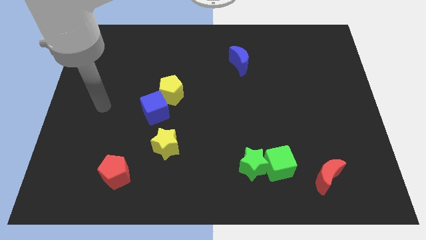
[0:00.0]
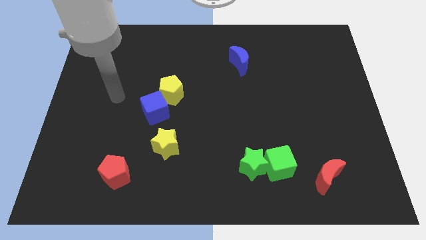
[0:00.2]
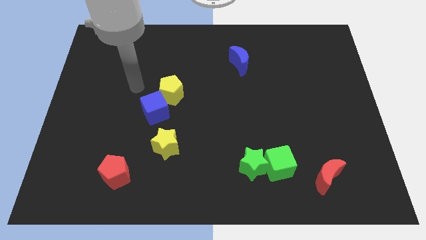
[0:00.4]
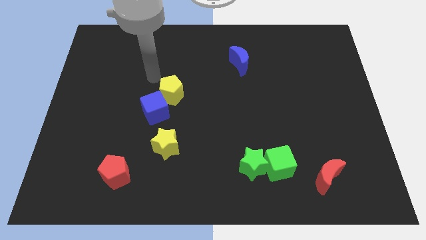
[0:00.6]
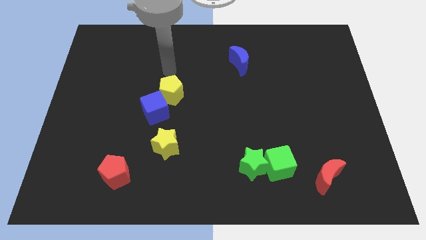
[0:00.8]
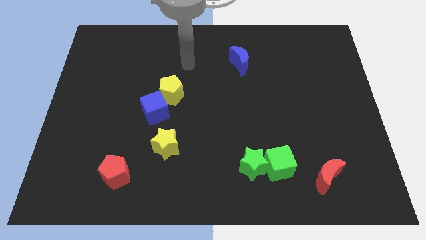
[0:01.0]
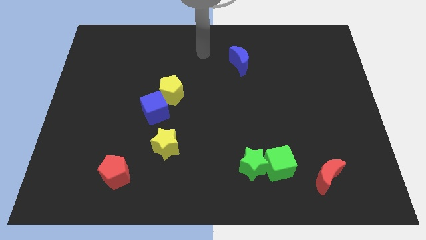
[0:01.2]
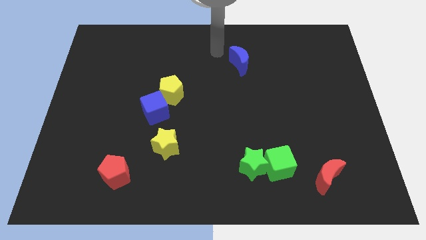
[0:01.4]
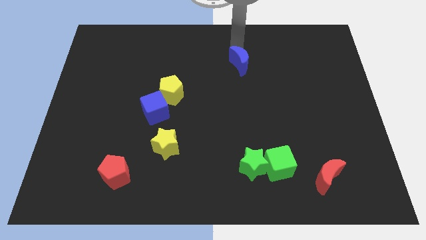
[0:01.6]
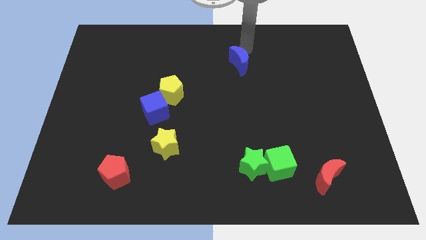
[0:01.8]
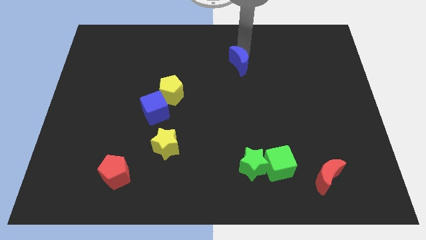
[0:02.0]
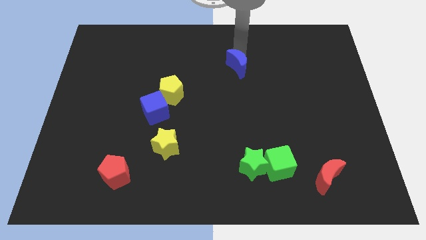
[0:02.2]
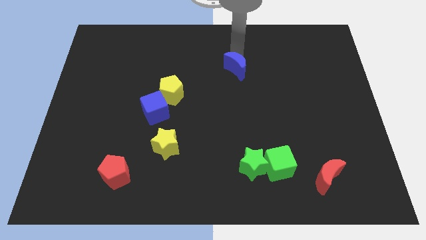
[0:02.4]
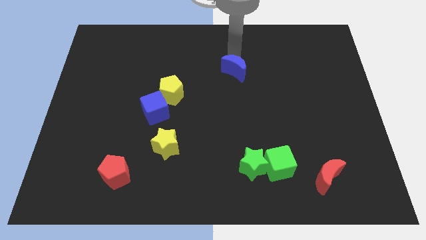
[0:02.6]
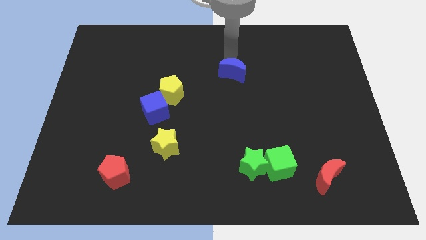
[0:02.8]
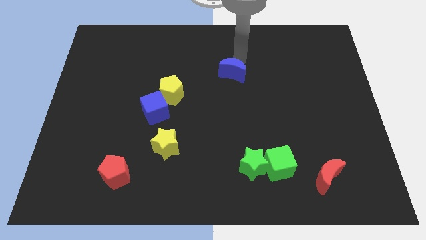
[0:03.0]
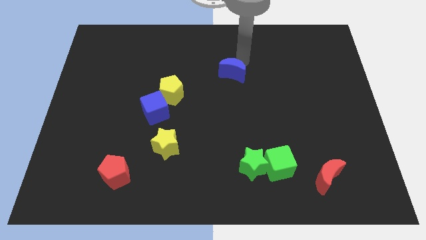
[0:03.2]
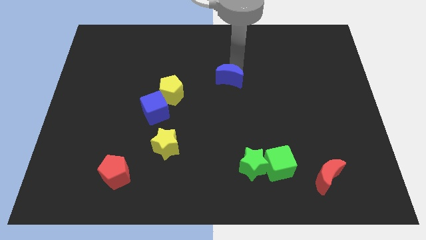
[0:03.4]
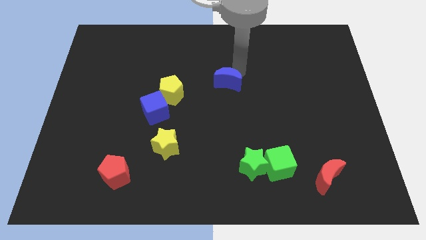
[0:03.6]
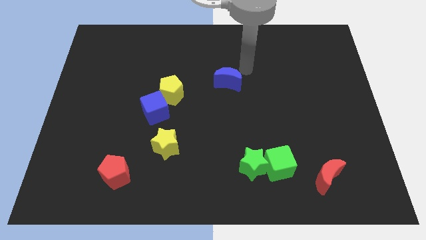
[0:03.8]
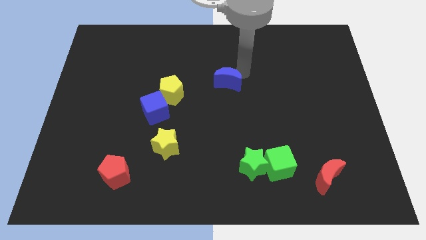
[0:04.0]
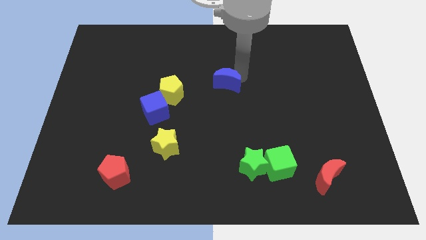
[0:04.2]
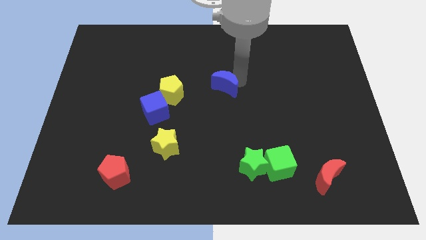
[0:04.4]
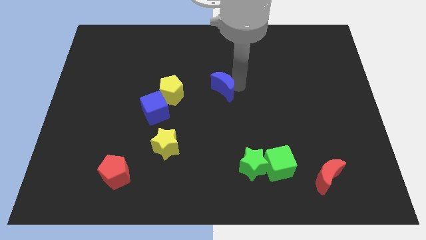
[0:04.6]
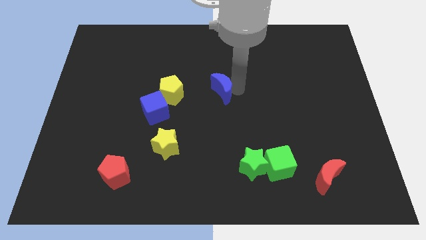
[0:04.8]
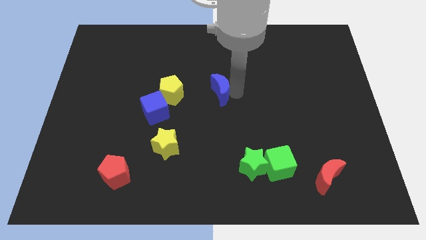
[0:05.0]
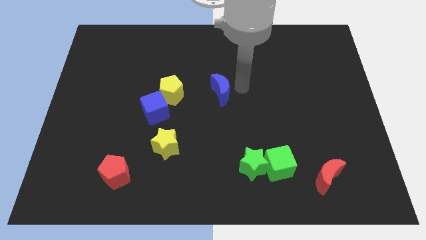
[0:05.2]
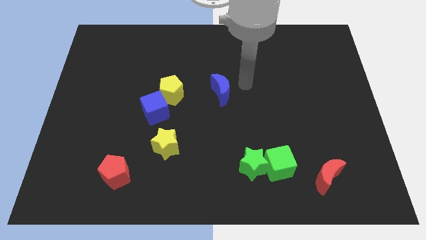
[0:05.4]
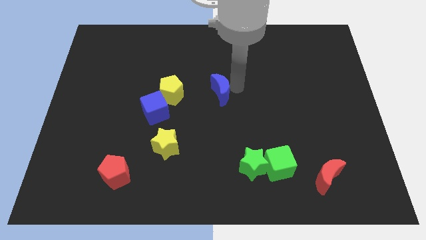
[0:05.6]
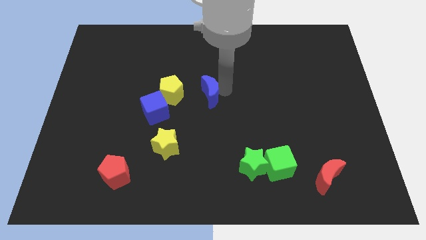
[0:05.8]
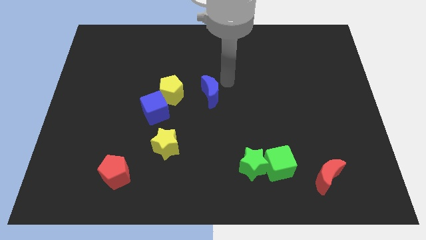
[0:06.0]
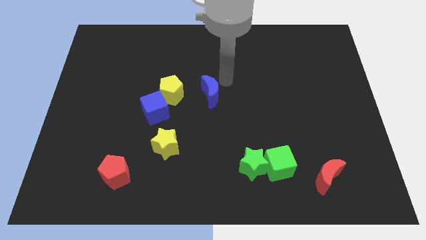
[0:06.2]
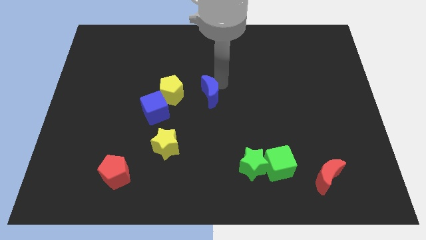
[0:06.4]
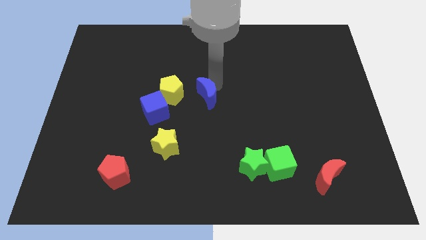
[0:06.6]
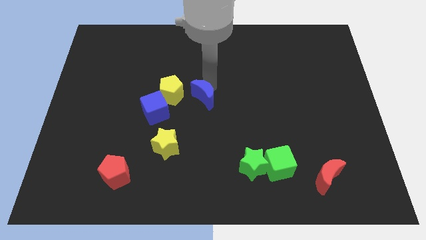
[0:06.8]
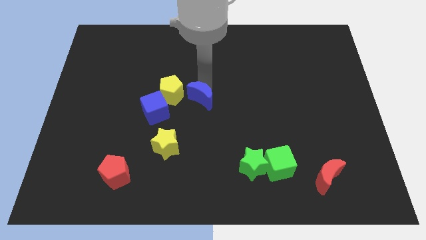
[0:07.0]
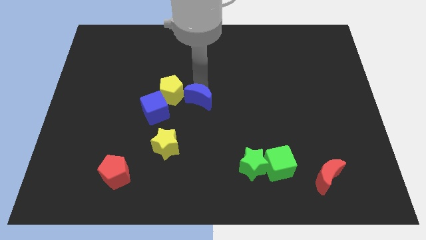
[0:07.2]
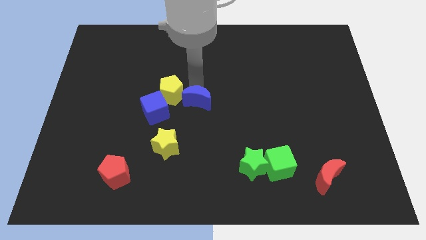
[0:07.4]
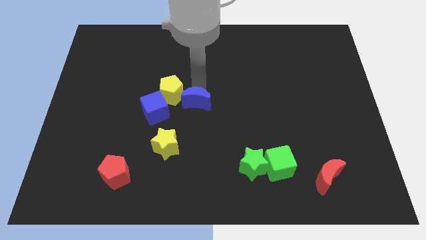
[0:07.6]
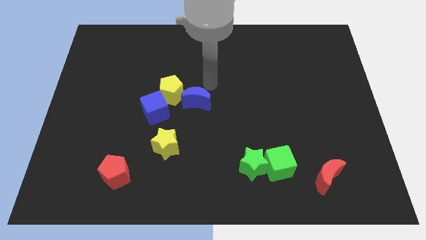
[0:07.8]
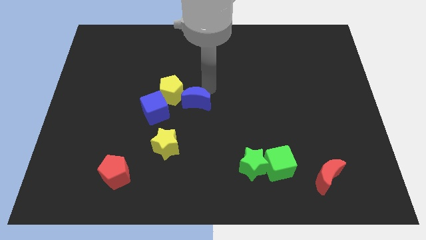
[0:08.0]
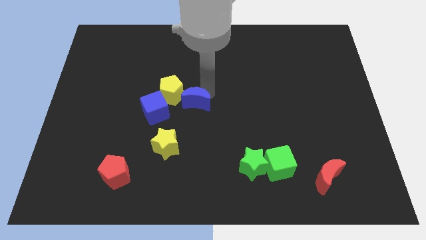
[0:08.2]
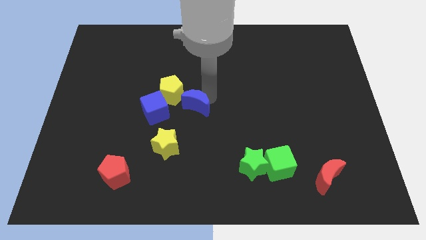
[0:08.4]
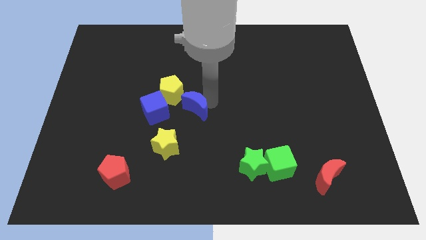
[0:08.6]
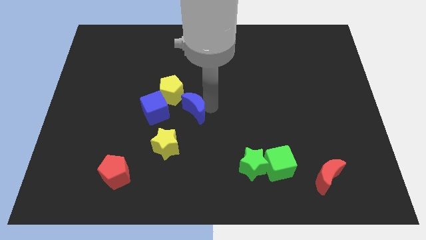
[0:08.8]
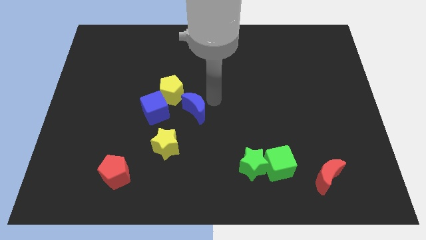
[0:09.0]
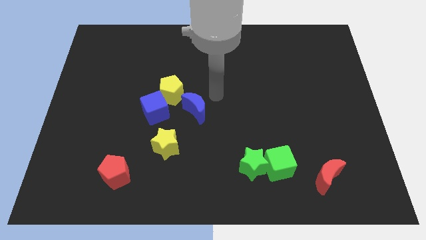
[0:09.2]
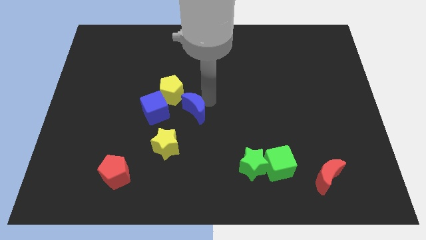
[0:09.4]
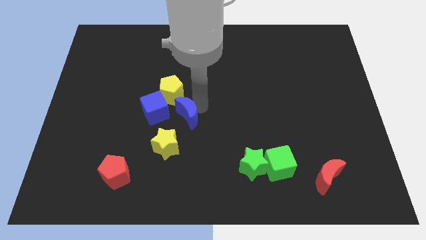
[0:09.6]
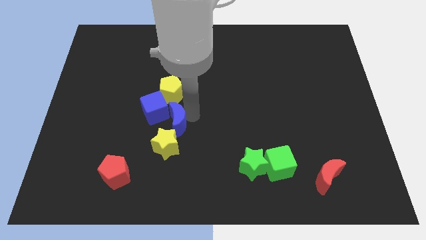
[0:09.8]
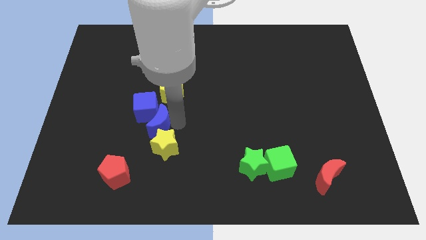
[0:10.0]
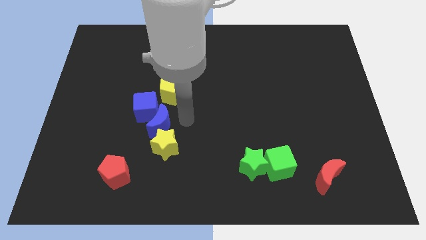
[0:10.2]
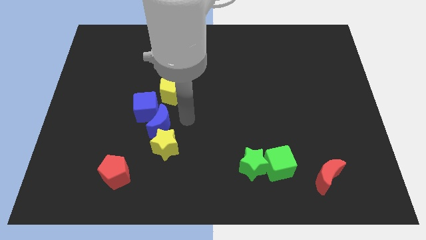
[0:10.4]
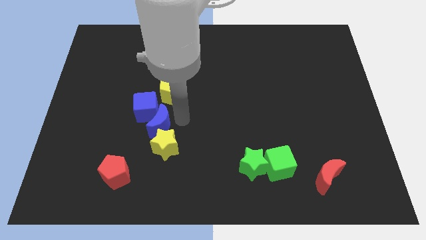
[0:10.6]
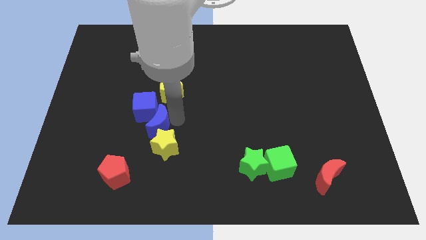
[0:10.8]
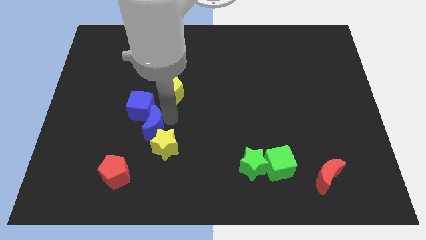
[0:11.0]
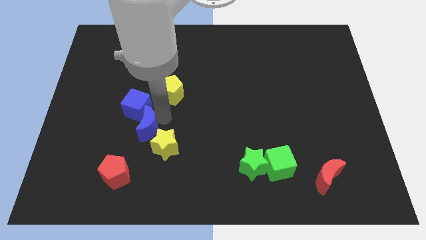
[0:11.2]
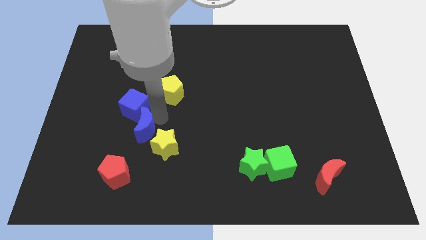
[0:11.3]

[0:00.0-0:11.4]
push the blue moon above the red pentagon
